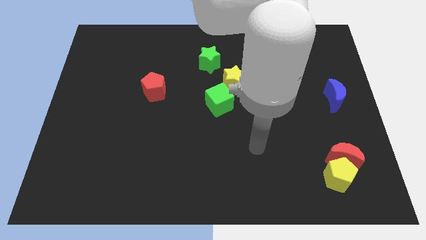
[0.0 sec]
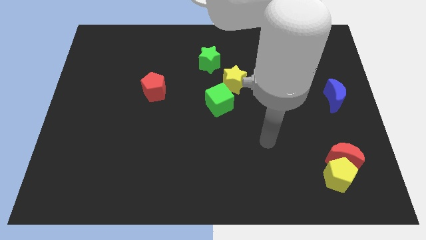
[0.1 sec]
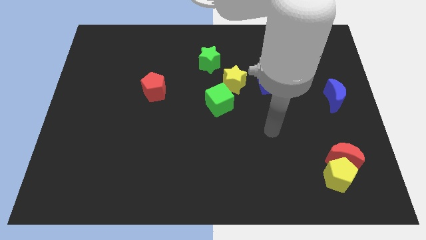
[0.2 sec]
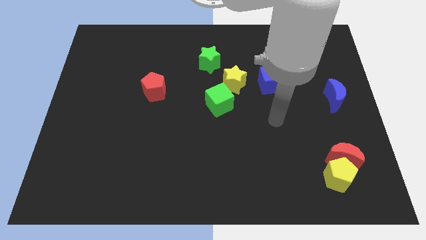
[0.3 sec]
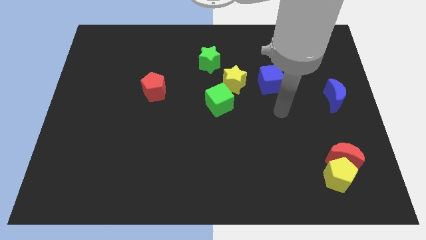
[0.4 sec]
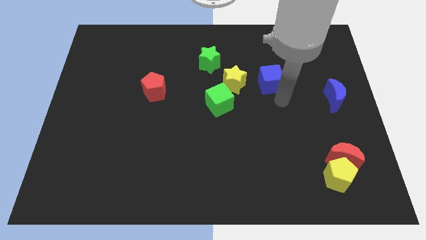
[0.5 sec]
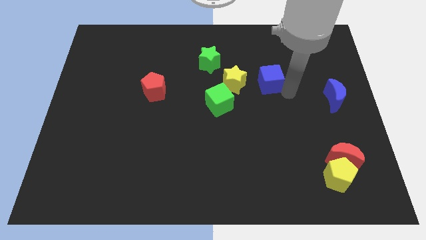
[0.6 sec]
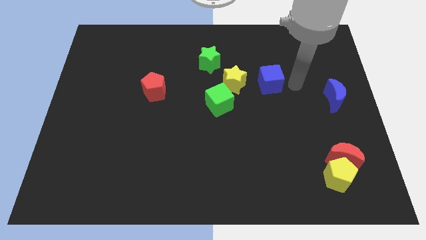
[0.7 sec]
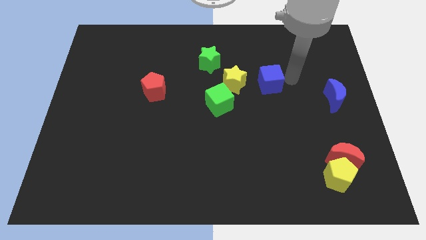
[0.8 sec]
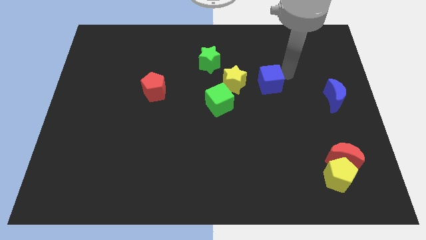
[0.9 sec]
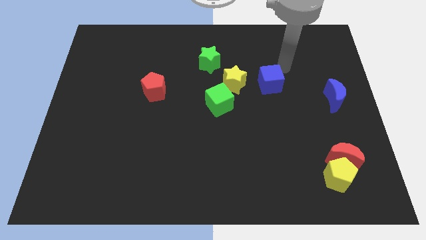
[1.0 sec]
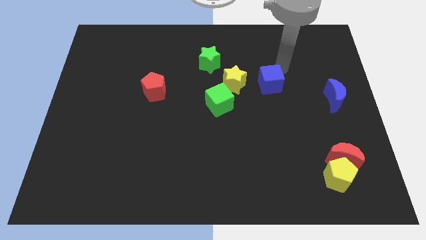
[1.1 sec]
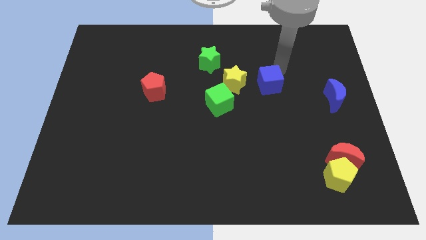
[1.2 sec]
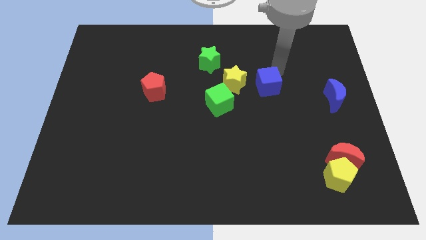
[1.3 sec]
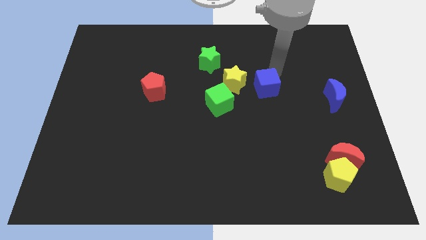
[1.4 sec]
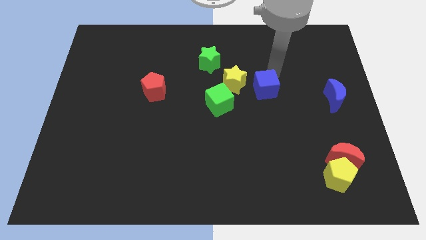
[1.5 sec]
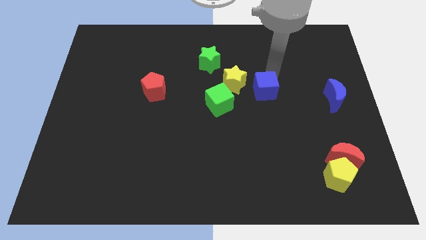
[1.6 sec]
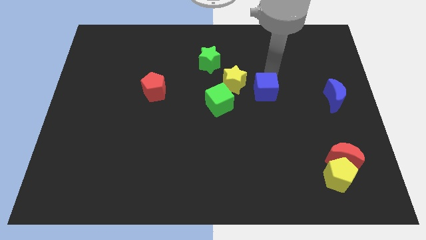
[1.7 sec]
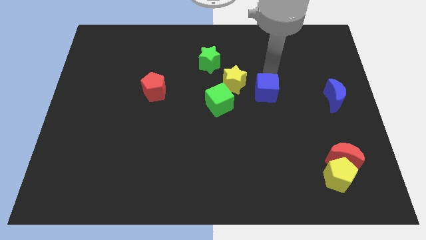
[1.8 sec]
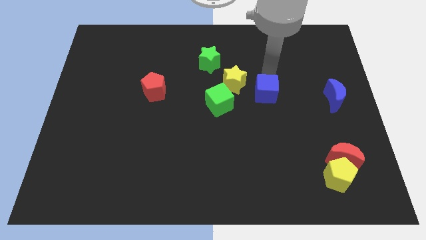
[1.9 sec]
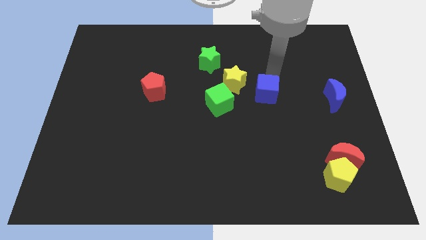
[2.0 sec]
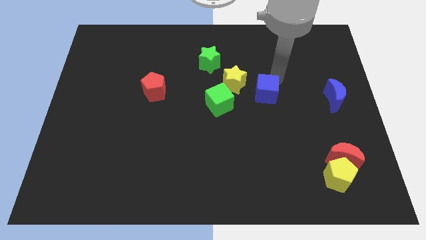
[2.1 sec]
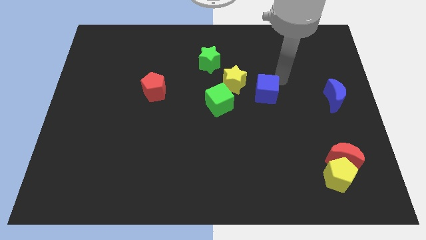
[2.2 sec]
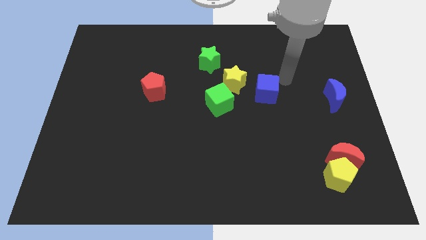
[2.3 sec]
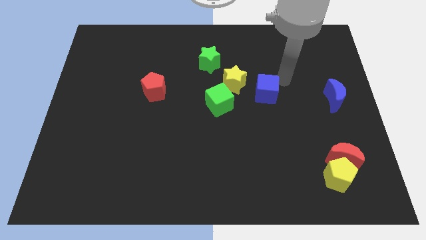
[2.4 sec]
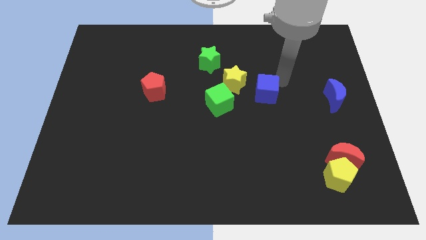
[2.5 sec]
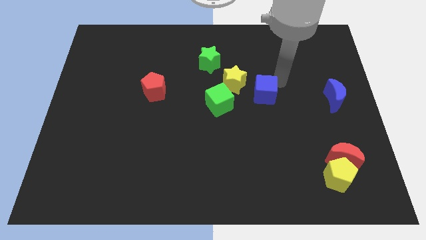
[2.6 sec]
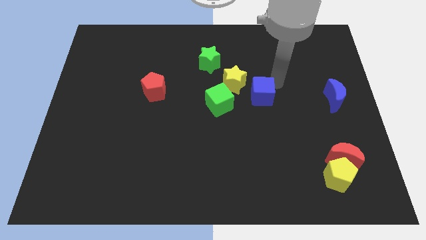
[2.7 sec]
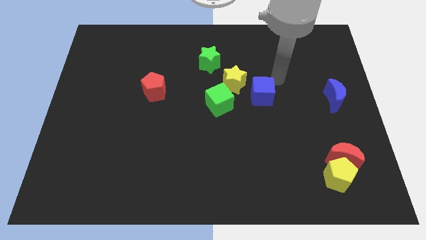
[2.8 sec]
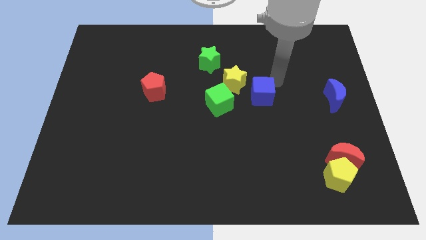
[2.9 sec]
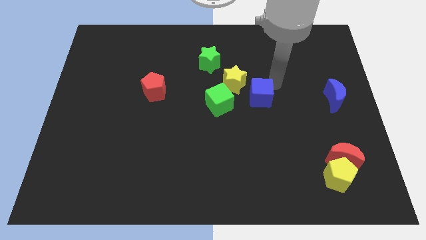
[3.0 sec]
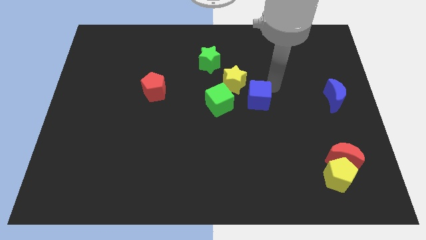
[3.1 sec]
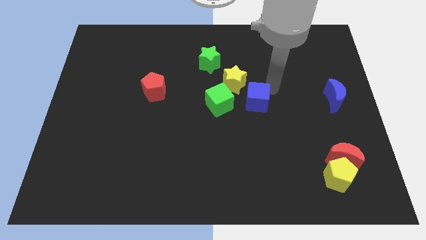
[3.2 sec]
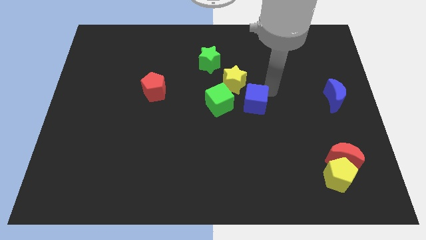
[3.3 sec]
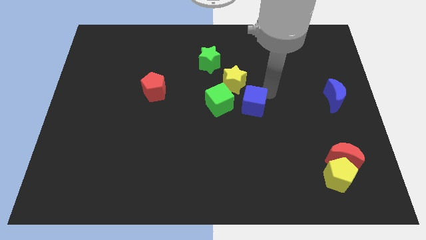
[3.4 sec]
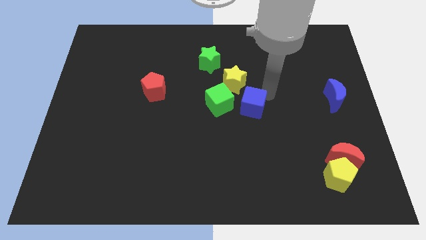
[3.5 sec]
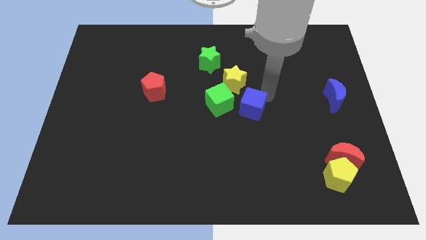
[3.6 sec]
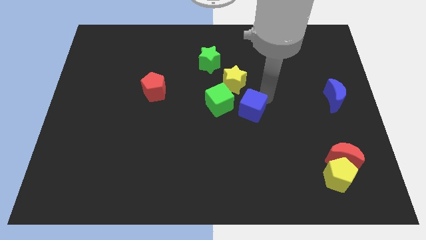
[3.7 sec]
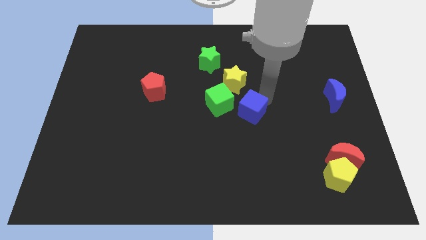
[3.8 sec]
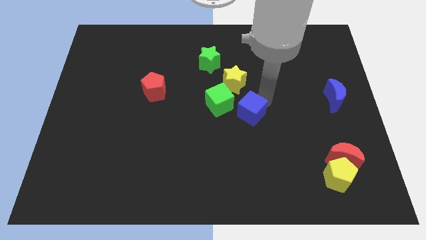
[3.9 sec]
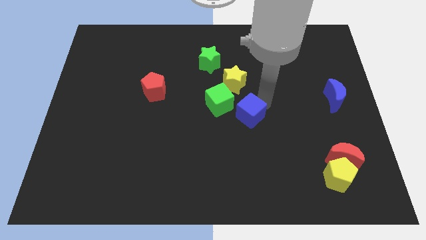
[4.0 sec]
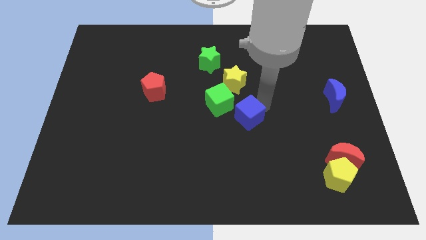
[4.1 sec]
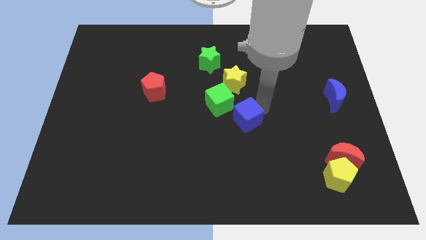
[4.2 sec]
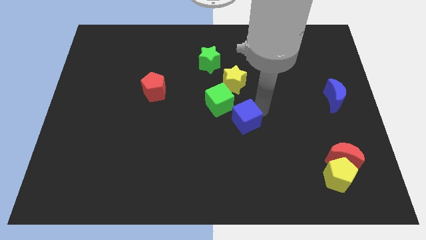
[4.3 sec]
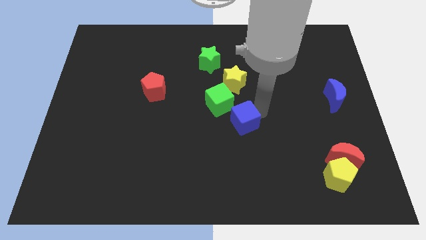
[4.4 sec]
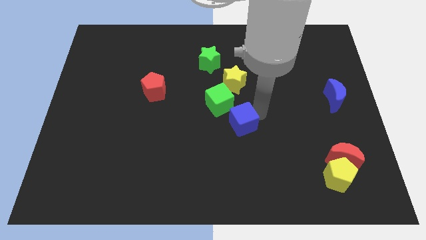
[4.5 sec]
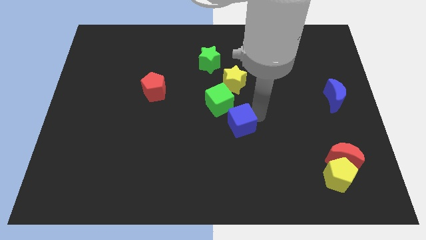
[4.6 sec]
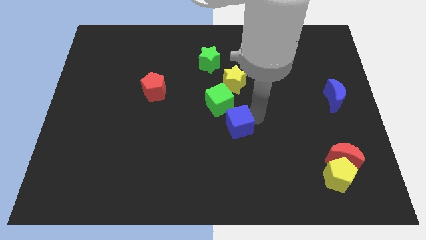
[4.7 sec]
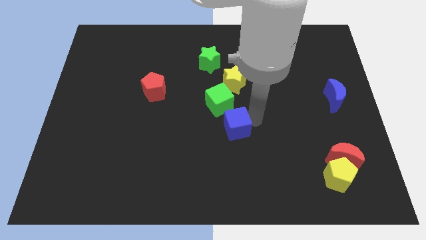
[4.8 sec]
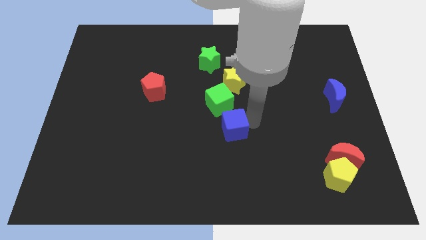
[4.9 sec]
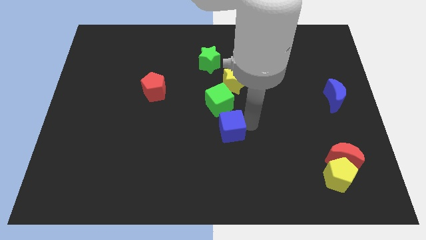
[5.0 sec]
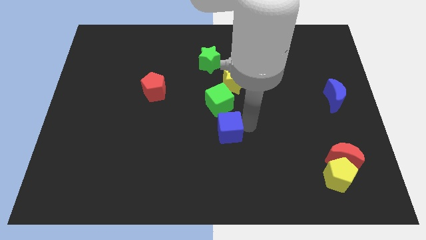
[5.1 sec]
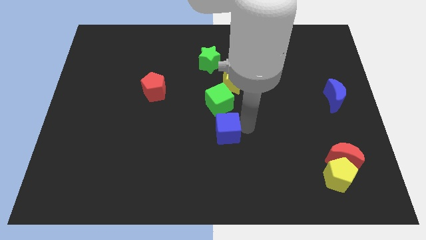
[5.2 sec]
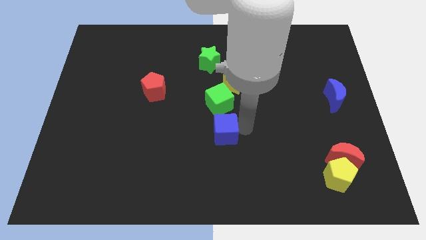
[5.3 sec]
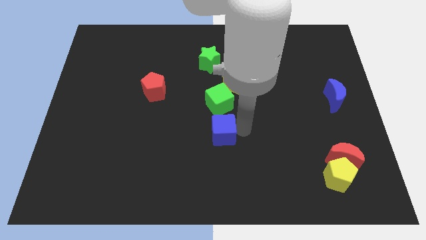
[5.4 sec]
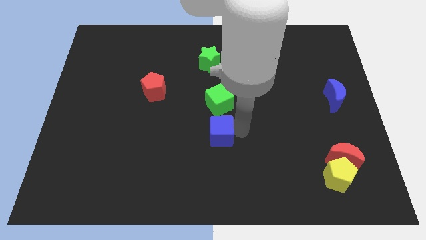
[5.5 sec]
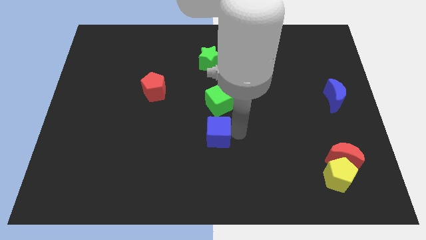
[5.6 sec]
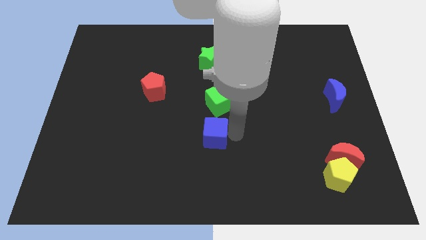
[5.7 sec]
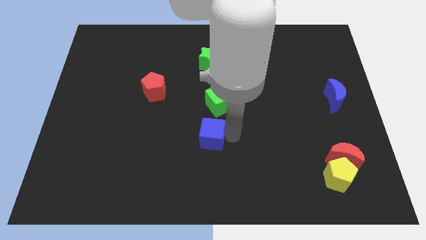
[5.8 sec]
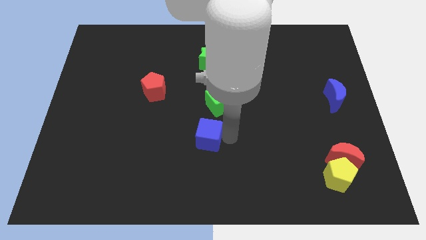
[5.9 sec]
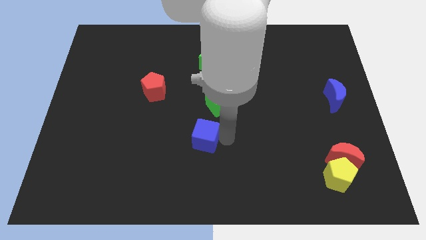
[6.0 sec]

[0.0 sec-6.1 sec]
slide the blue cube to the bottom left side of the green cube

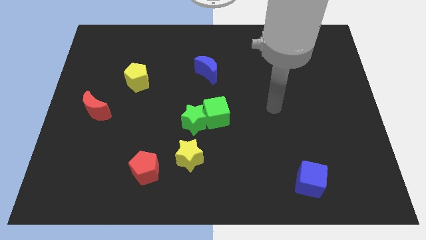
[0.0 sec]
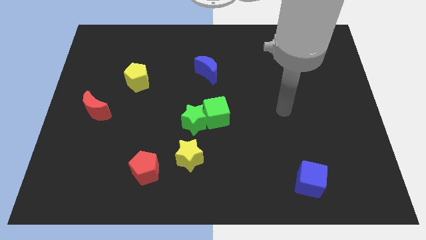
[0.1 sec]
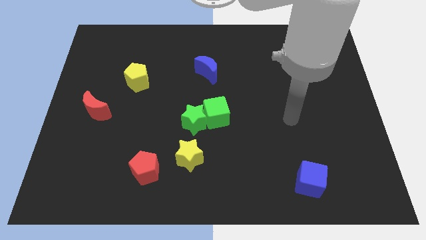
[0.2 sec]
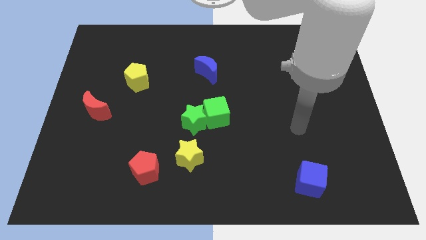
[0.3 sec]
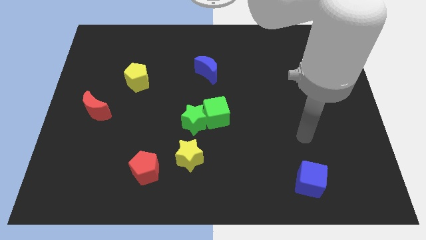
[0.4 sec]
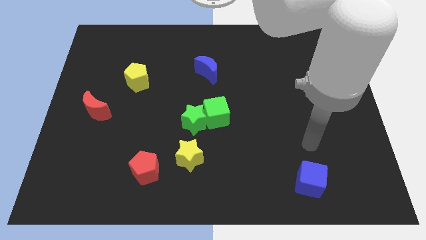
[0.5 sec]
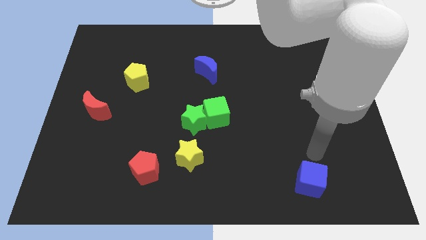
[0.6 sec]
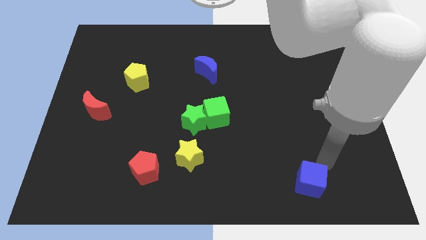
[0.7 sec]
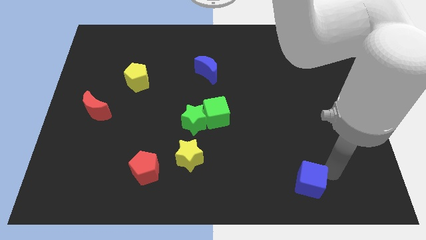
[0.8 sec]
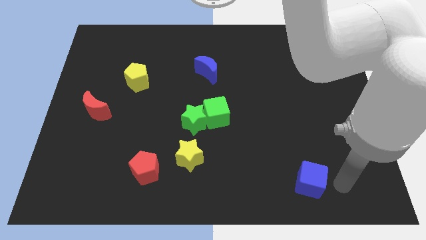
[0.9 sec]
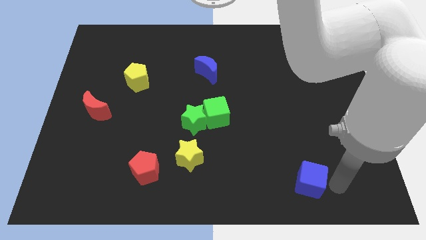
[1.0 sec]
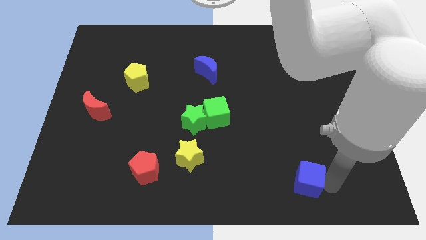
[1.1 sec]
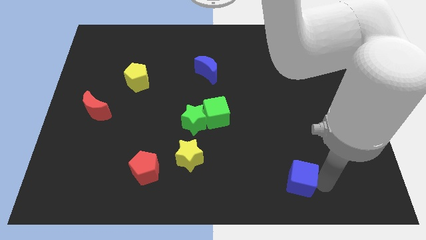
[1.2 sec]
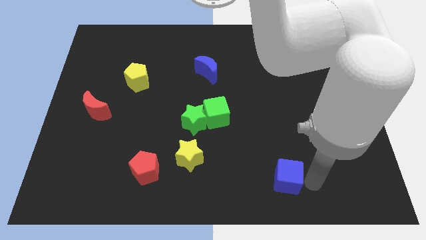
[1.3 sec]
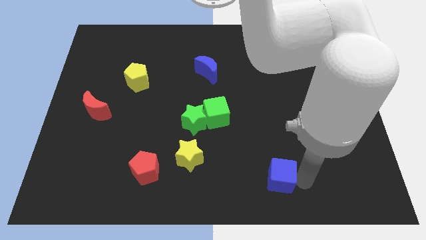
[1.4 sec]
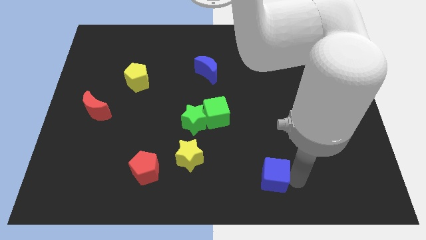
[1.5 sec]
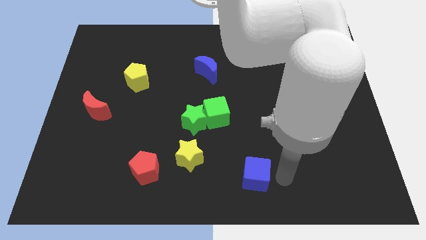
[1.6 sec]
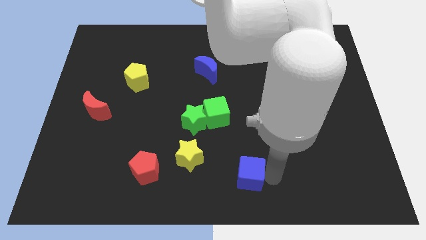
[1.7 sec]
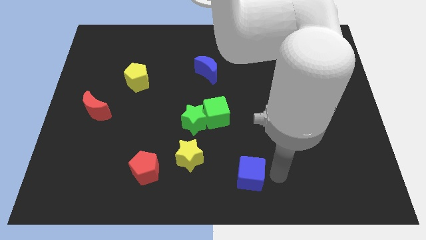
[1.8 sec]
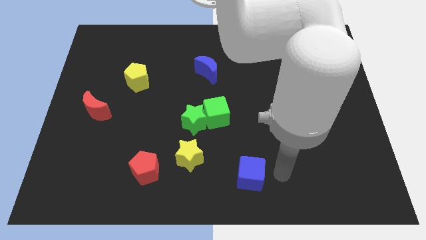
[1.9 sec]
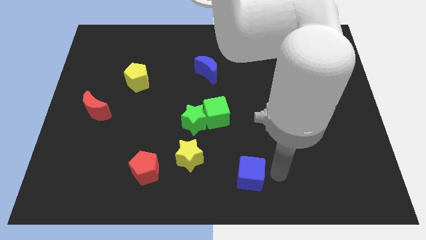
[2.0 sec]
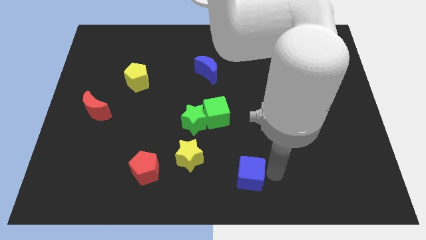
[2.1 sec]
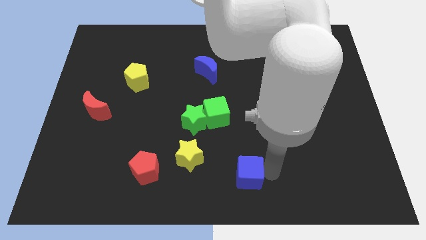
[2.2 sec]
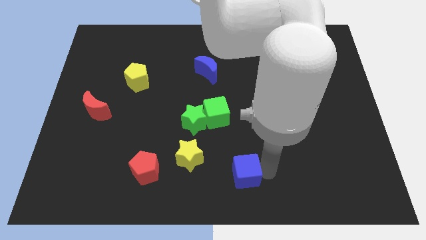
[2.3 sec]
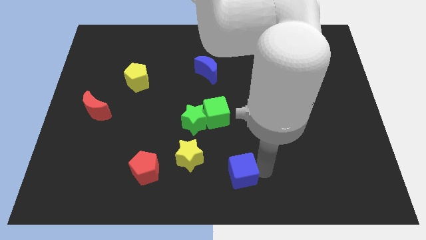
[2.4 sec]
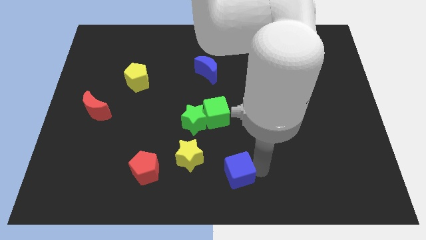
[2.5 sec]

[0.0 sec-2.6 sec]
push the blue cube to the bottom right side of the yellow star
